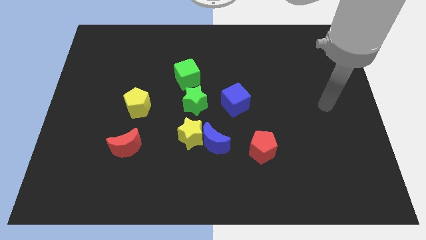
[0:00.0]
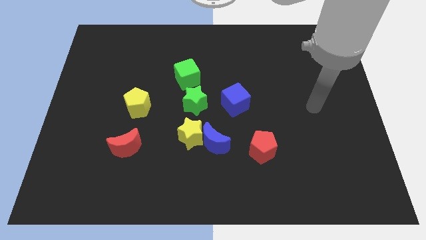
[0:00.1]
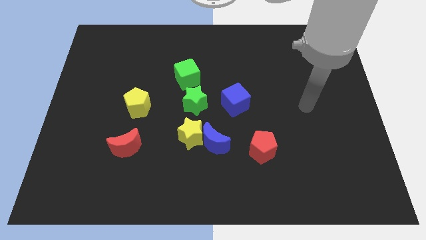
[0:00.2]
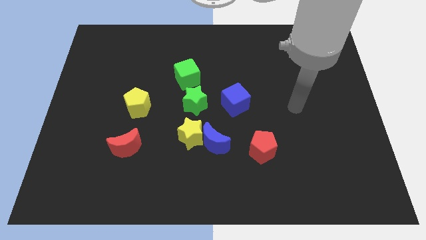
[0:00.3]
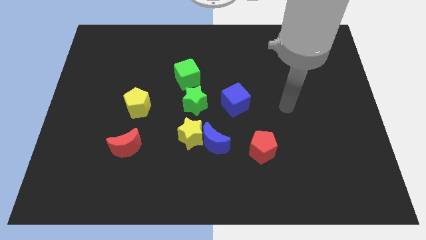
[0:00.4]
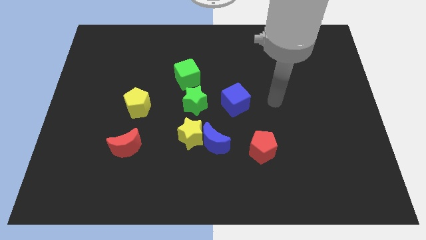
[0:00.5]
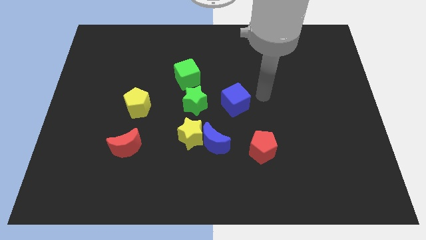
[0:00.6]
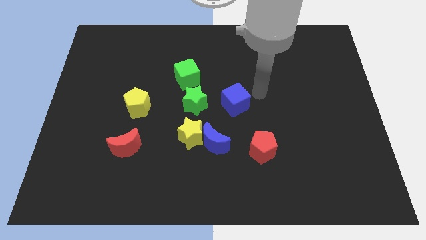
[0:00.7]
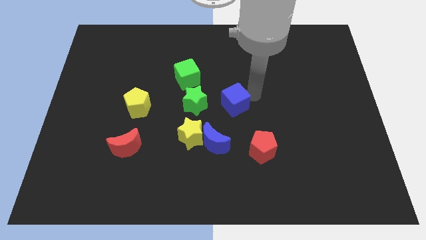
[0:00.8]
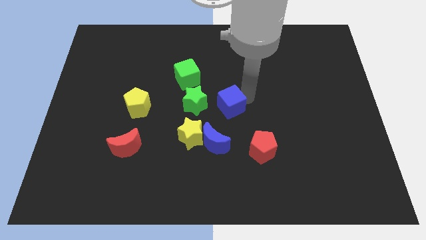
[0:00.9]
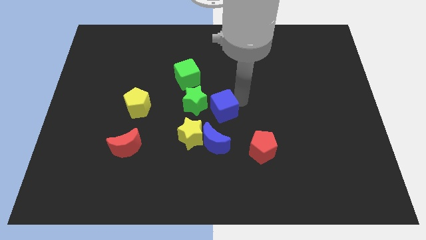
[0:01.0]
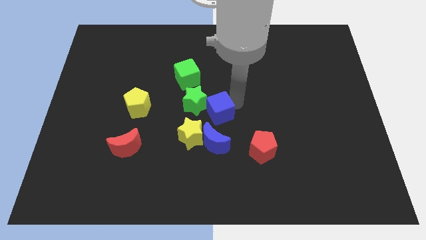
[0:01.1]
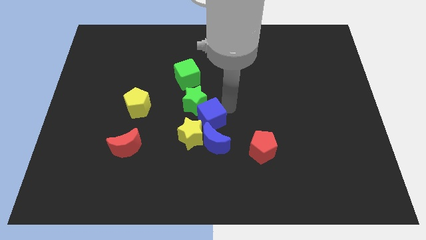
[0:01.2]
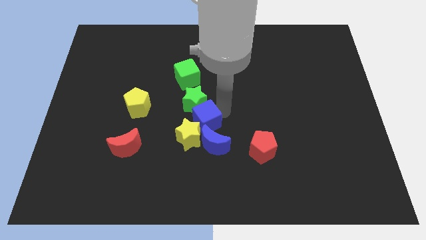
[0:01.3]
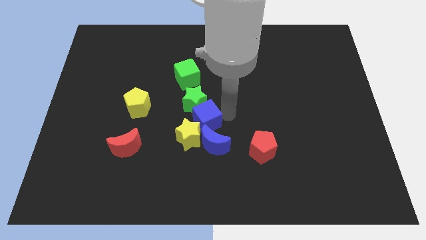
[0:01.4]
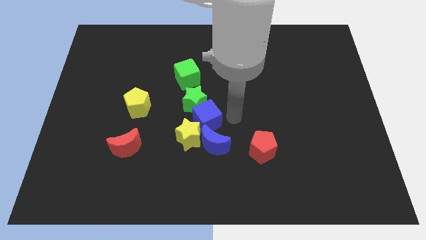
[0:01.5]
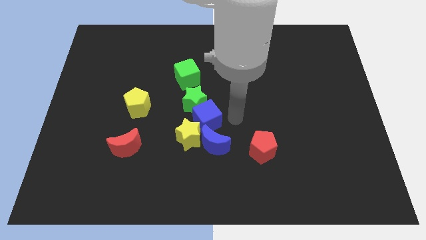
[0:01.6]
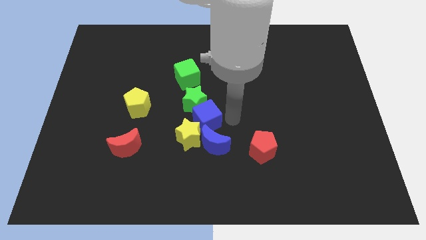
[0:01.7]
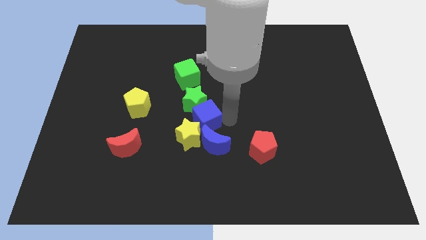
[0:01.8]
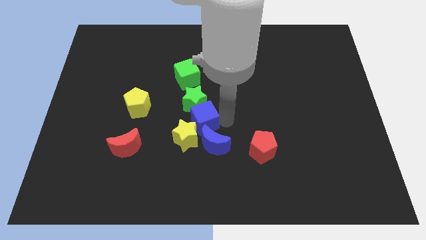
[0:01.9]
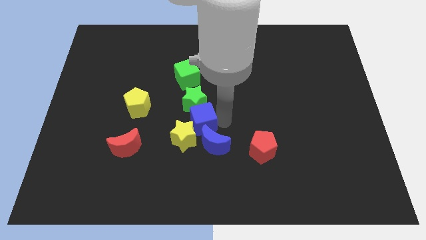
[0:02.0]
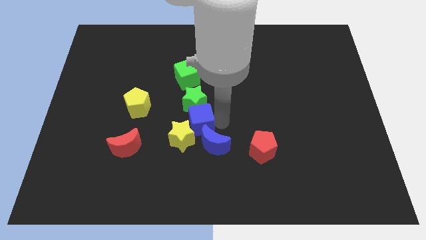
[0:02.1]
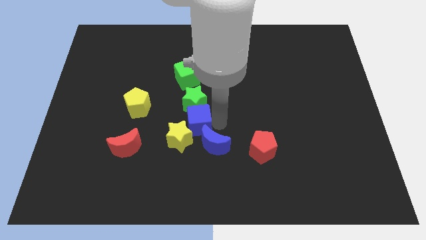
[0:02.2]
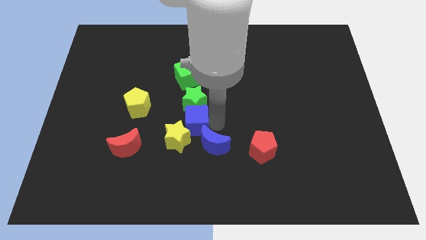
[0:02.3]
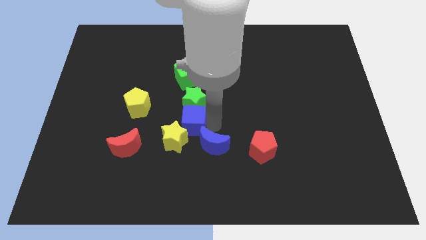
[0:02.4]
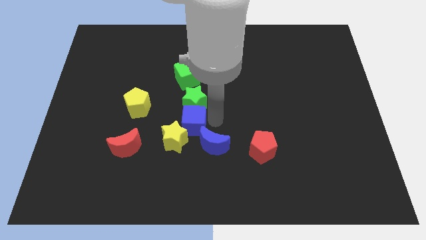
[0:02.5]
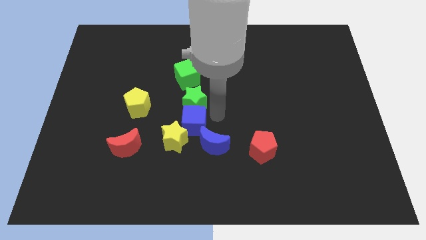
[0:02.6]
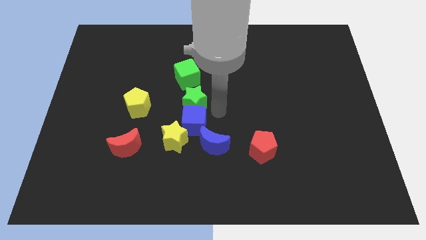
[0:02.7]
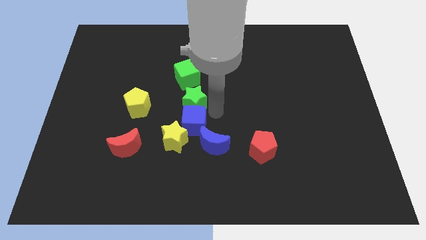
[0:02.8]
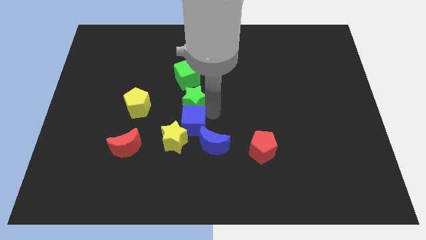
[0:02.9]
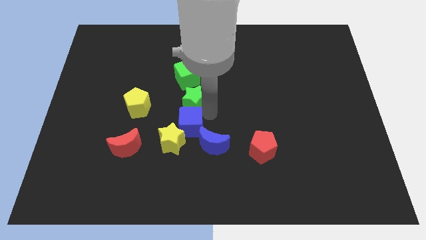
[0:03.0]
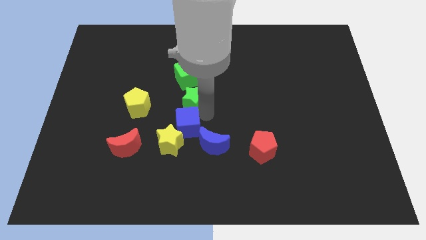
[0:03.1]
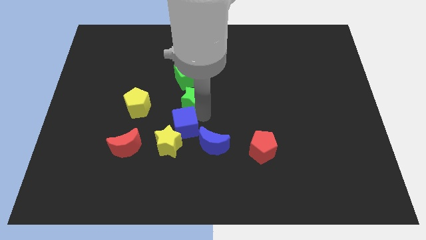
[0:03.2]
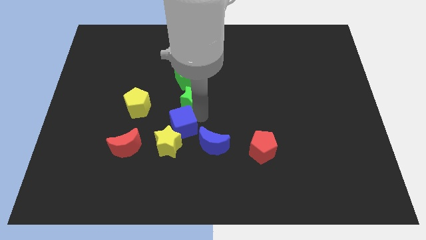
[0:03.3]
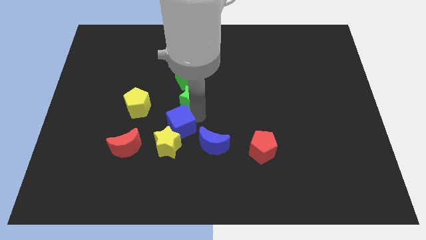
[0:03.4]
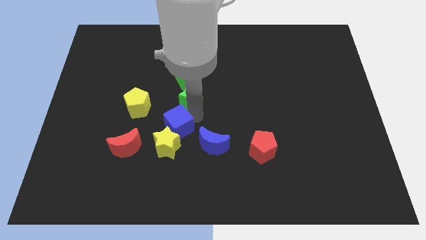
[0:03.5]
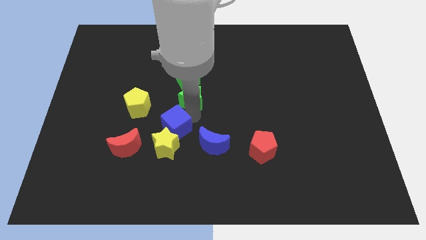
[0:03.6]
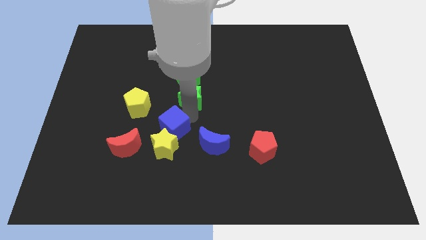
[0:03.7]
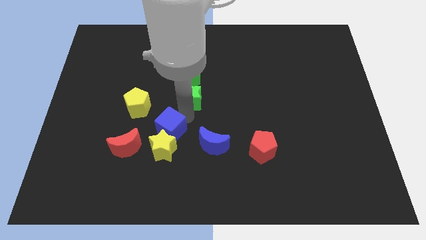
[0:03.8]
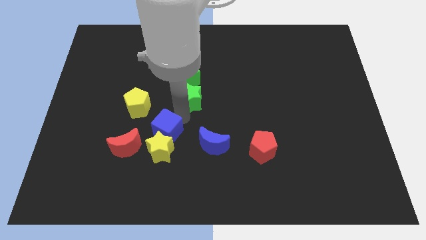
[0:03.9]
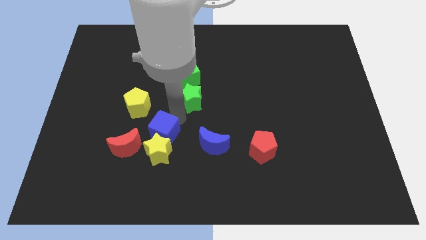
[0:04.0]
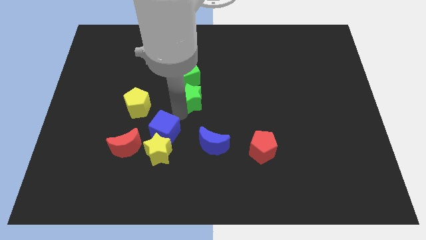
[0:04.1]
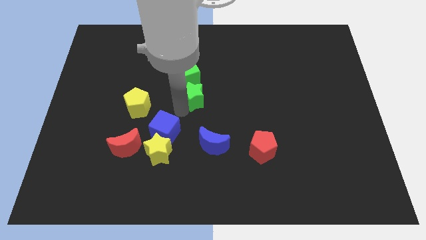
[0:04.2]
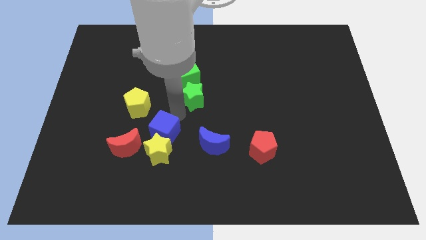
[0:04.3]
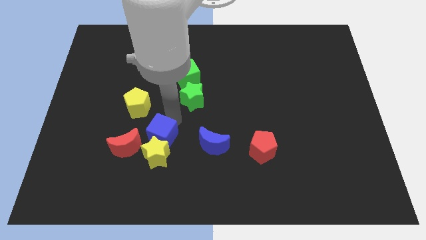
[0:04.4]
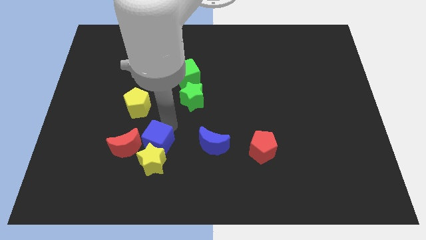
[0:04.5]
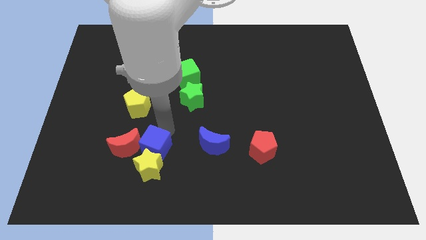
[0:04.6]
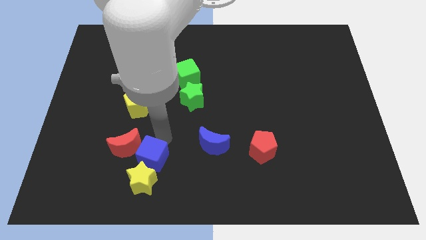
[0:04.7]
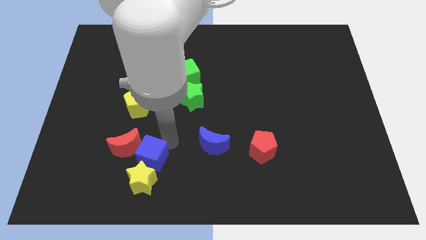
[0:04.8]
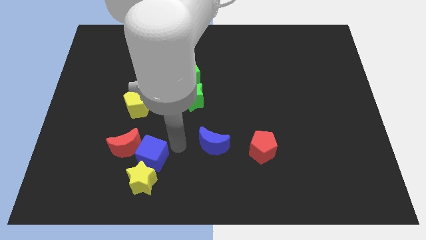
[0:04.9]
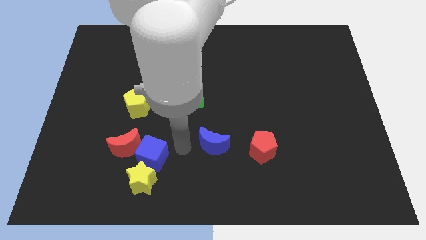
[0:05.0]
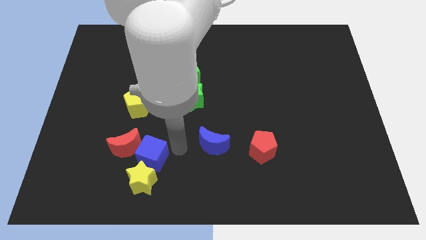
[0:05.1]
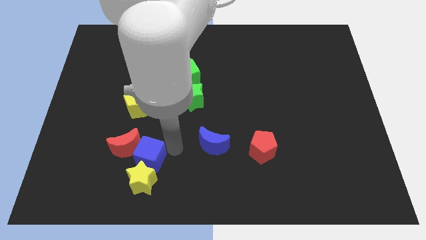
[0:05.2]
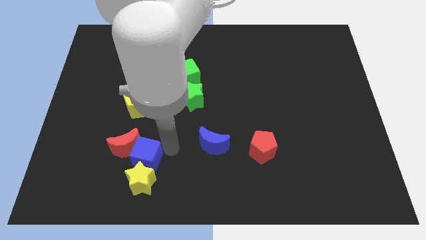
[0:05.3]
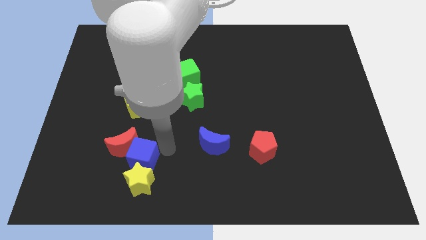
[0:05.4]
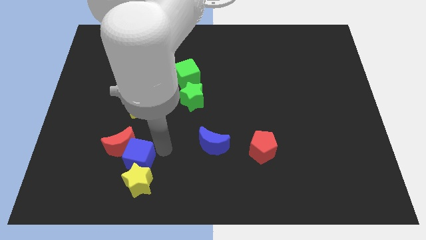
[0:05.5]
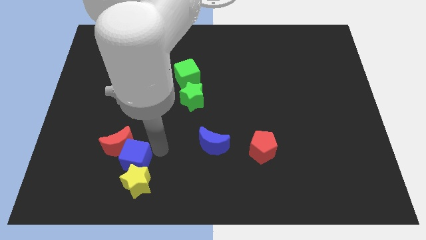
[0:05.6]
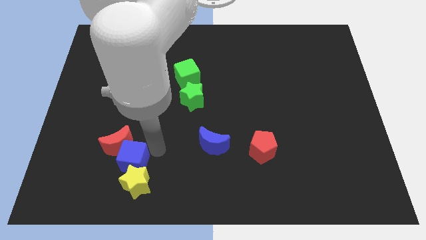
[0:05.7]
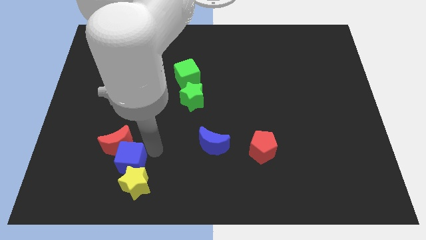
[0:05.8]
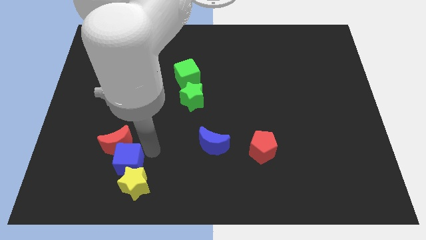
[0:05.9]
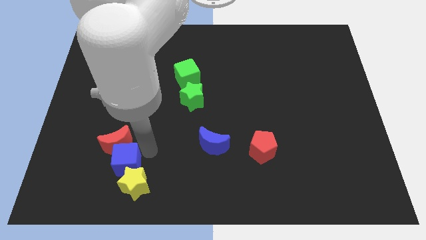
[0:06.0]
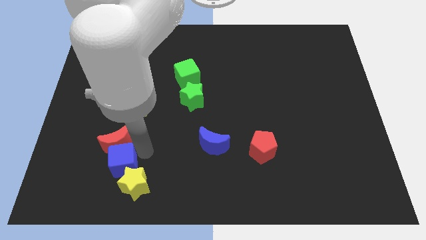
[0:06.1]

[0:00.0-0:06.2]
put the blue cube to the bottom left side of the red moon

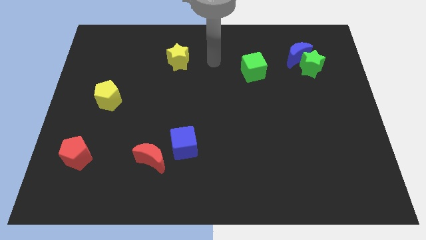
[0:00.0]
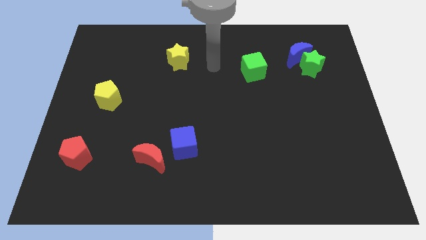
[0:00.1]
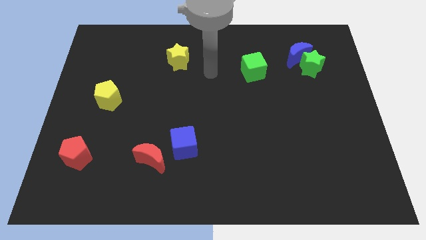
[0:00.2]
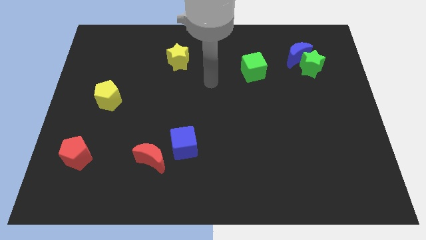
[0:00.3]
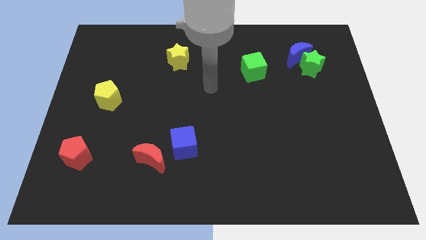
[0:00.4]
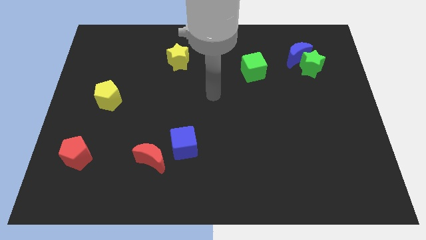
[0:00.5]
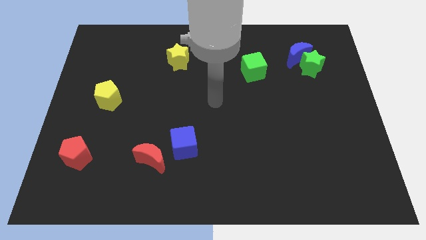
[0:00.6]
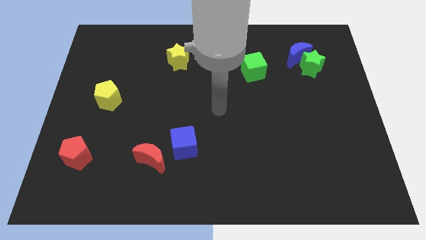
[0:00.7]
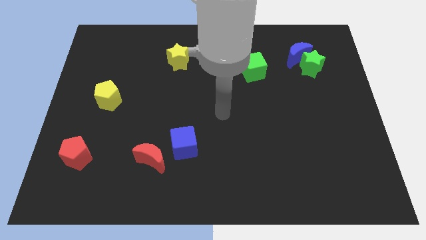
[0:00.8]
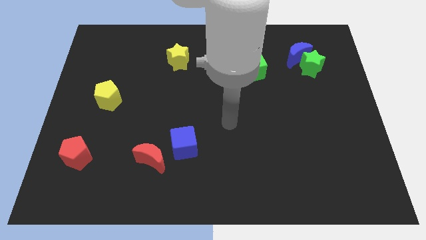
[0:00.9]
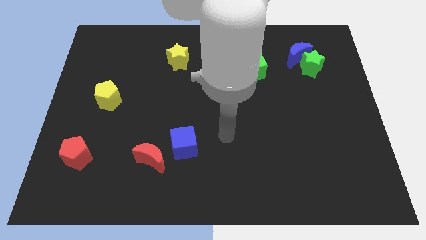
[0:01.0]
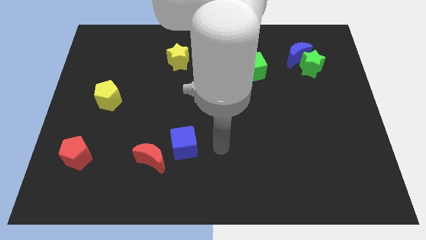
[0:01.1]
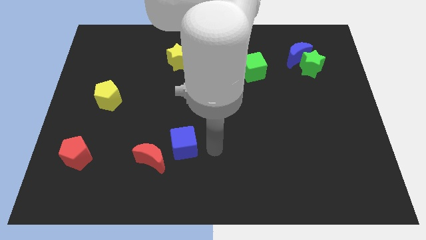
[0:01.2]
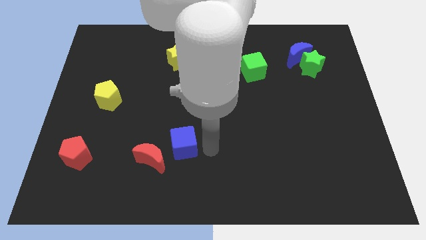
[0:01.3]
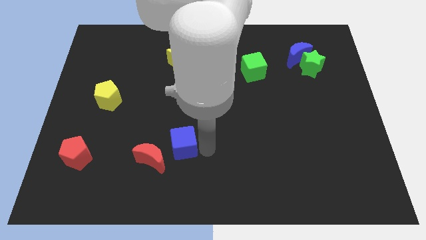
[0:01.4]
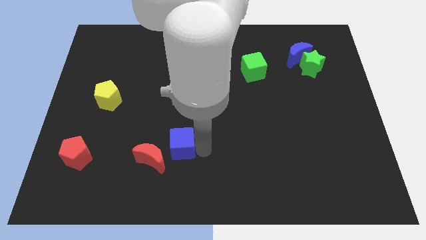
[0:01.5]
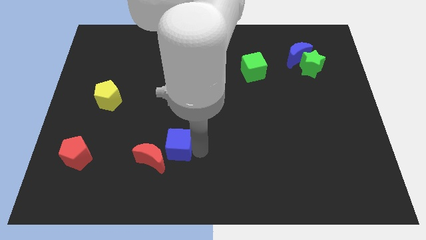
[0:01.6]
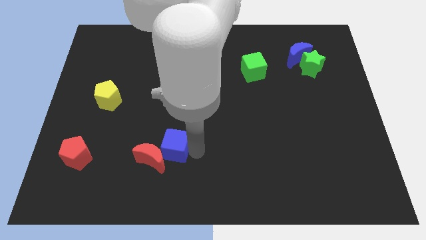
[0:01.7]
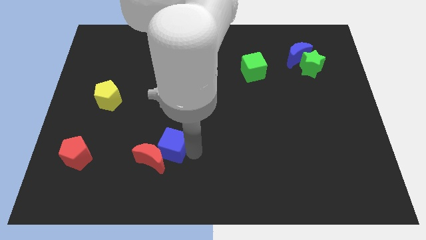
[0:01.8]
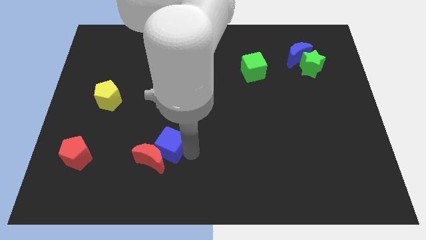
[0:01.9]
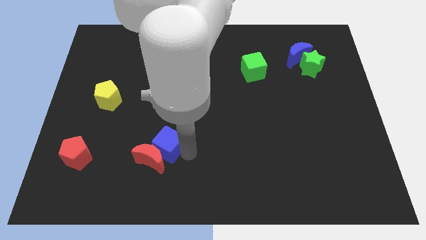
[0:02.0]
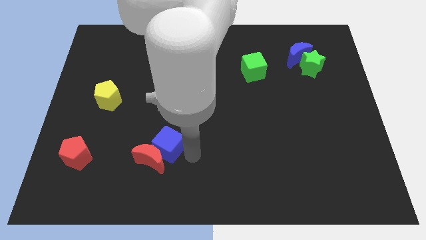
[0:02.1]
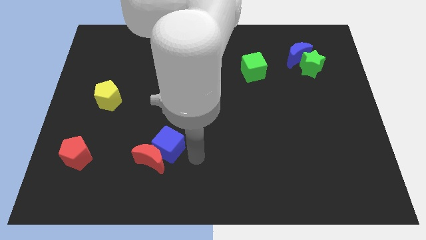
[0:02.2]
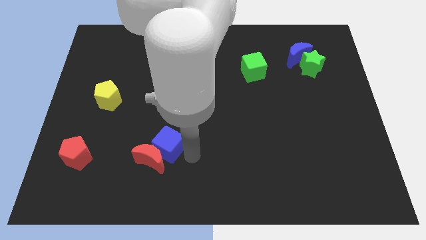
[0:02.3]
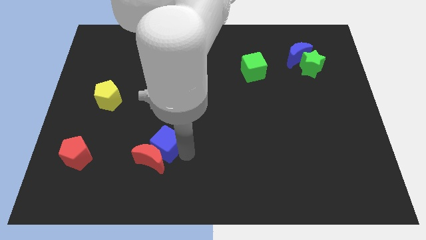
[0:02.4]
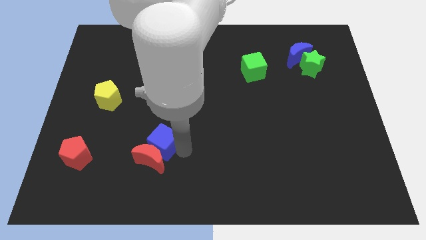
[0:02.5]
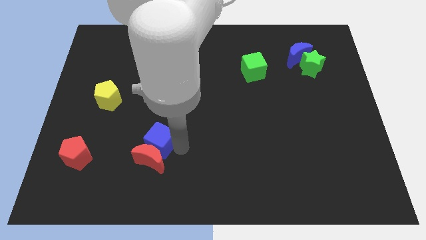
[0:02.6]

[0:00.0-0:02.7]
move the blue cube to the top left of the red moon
